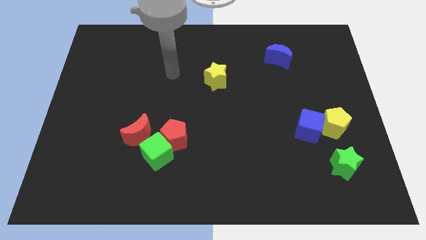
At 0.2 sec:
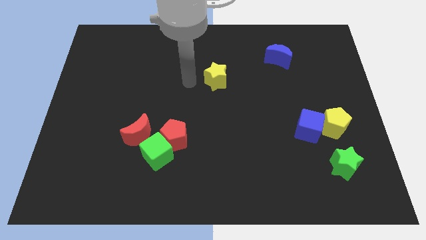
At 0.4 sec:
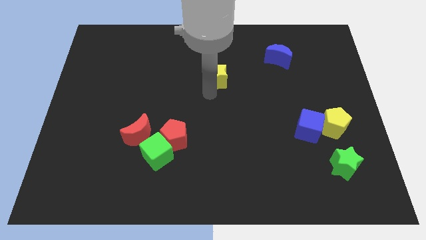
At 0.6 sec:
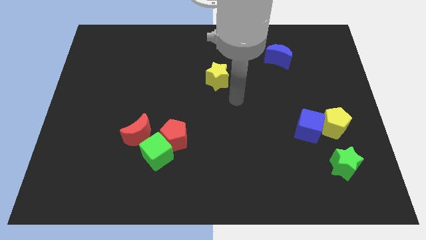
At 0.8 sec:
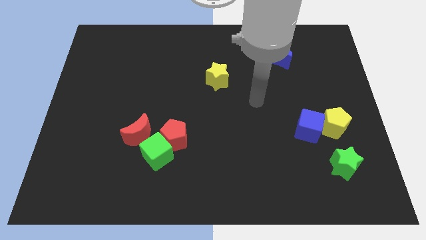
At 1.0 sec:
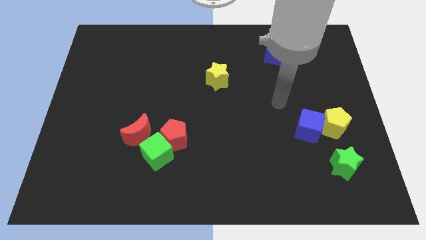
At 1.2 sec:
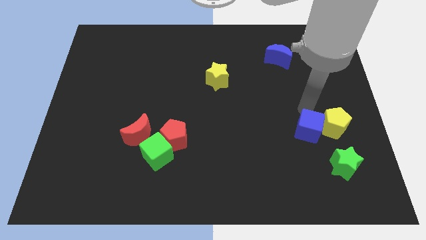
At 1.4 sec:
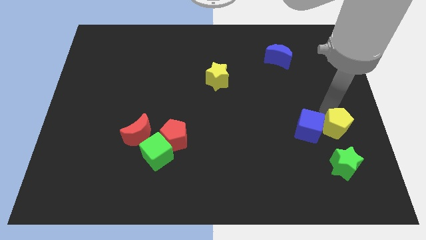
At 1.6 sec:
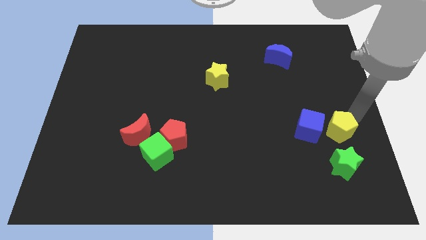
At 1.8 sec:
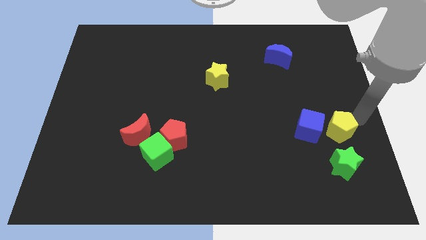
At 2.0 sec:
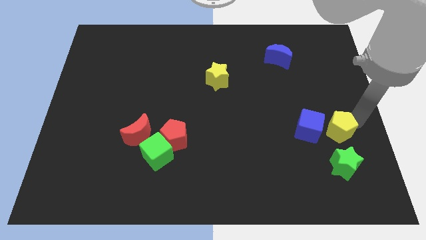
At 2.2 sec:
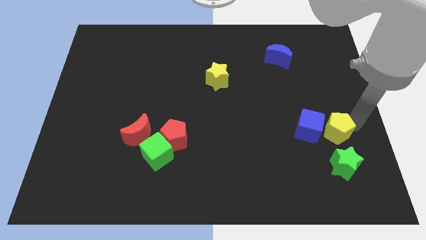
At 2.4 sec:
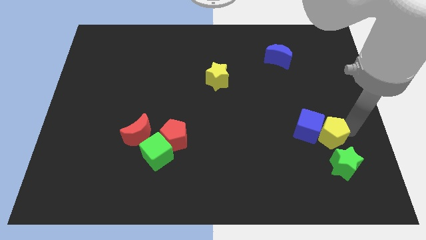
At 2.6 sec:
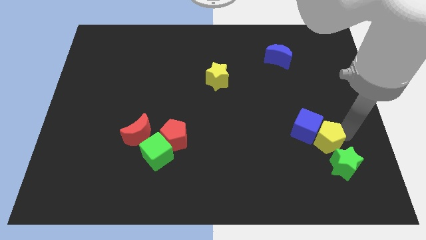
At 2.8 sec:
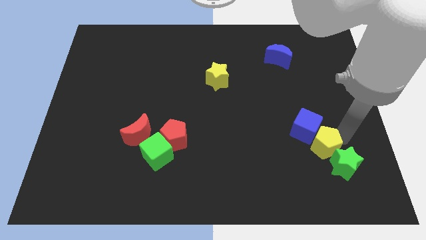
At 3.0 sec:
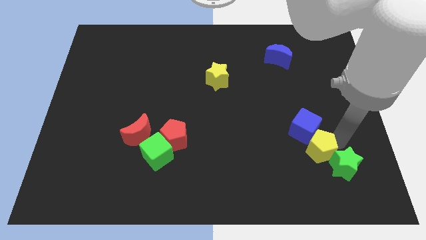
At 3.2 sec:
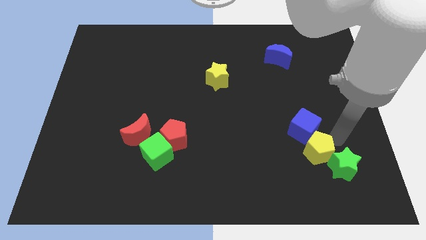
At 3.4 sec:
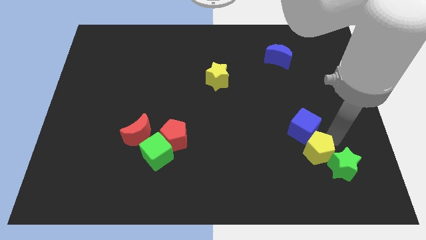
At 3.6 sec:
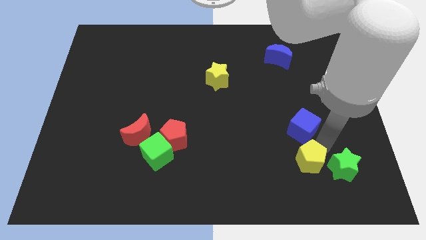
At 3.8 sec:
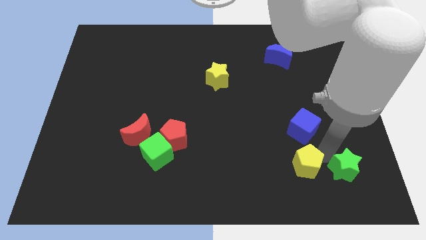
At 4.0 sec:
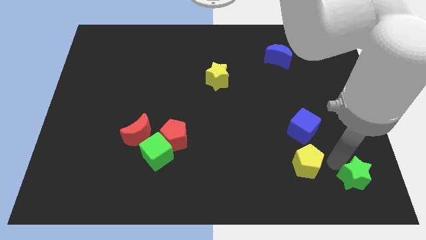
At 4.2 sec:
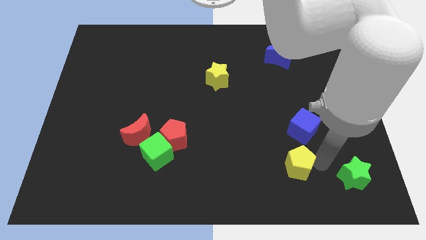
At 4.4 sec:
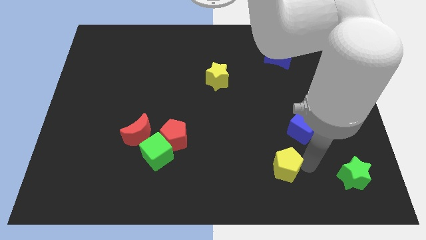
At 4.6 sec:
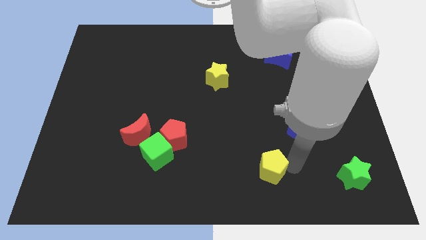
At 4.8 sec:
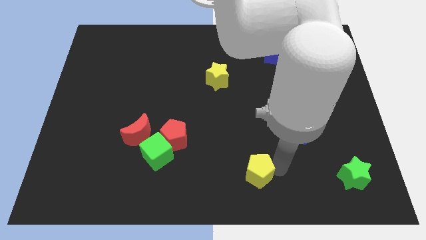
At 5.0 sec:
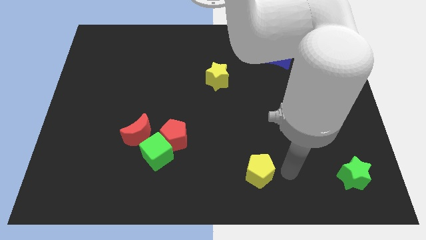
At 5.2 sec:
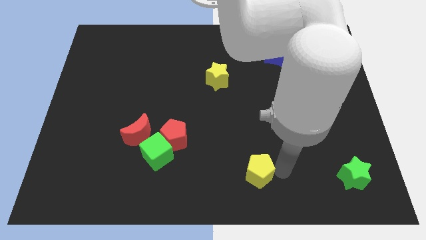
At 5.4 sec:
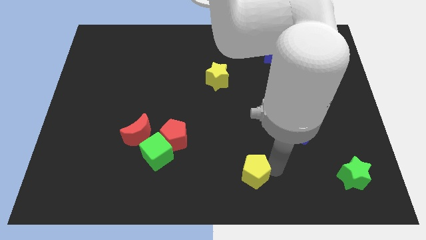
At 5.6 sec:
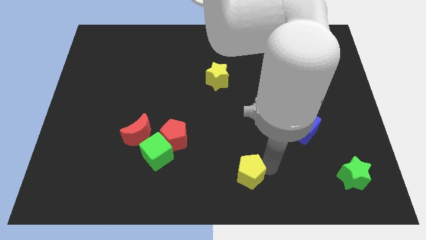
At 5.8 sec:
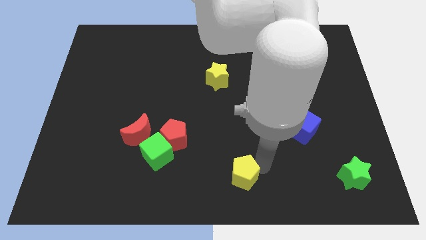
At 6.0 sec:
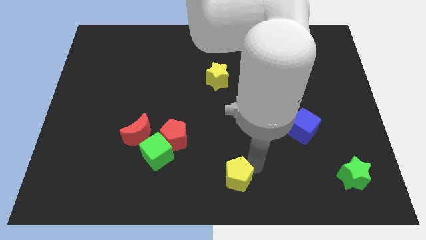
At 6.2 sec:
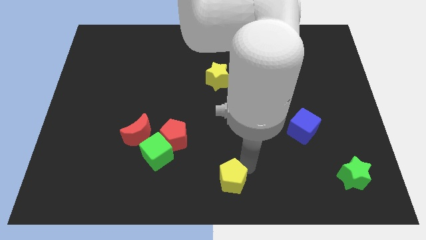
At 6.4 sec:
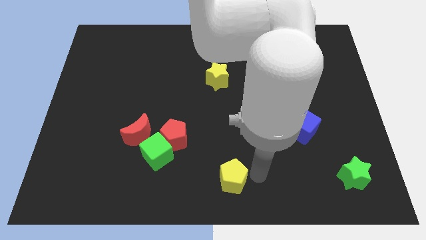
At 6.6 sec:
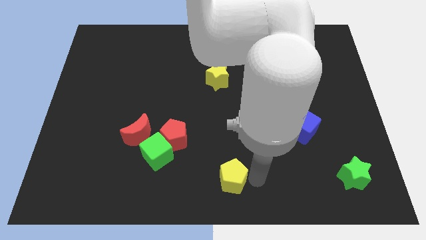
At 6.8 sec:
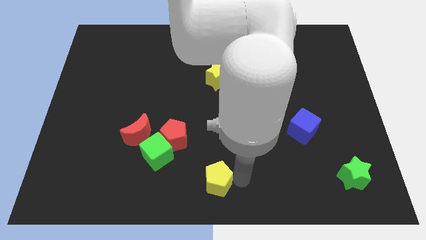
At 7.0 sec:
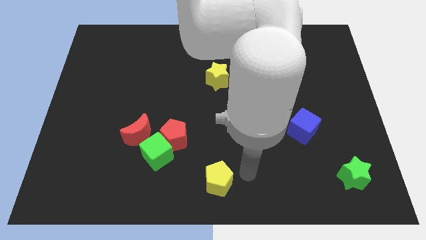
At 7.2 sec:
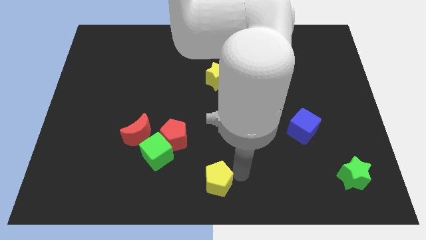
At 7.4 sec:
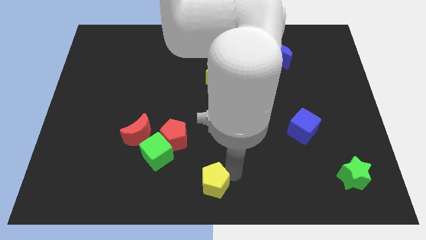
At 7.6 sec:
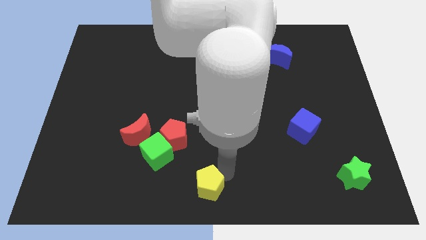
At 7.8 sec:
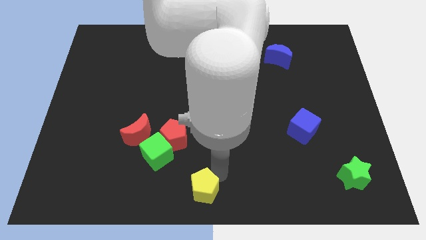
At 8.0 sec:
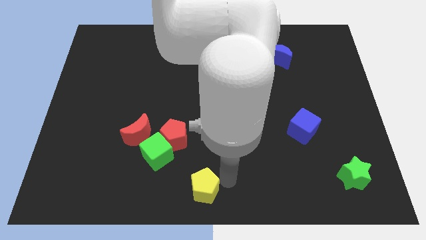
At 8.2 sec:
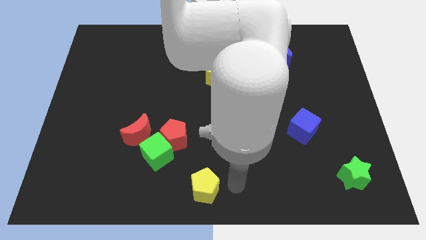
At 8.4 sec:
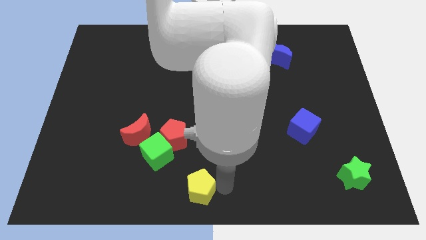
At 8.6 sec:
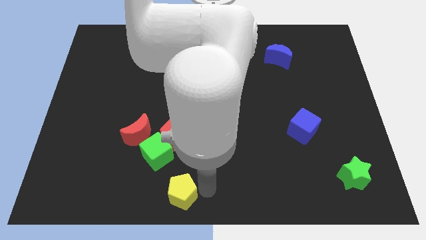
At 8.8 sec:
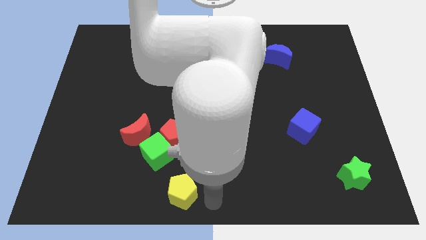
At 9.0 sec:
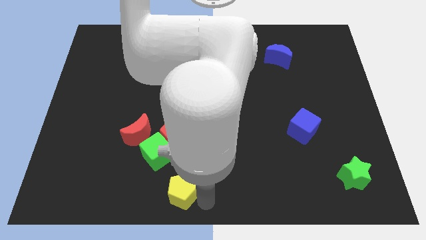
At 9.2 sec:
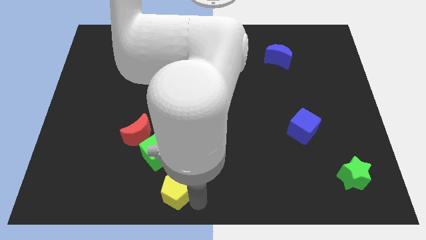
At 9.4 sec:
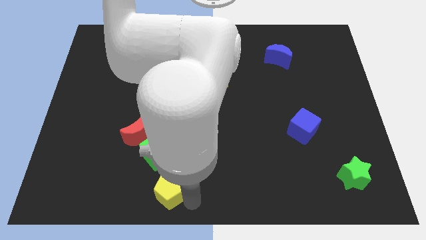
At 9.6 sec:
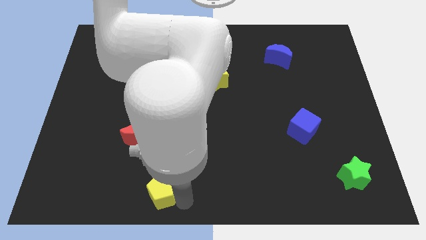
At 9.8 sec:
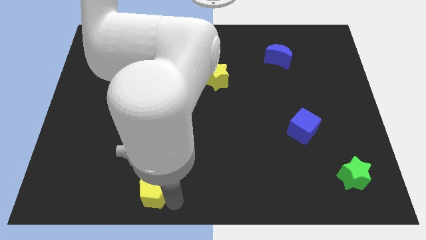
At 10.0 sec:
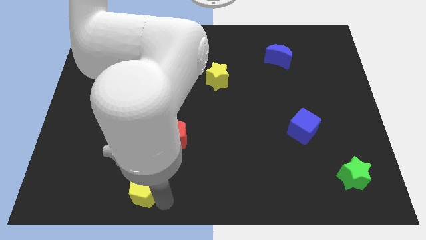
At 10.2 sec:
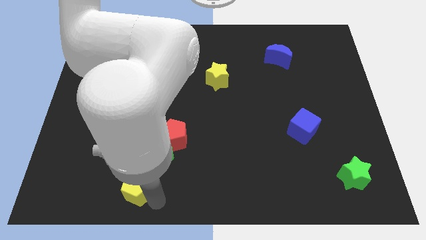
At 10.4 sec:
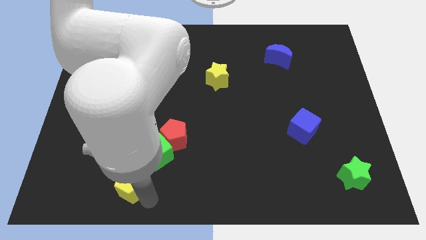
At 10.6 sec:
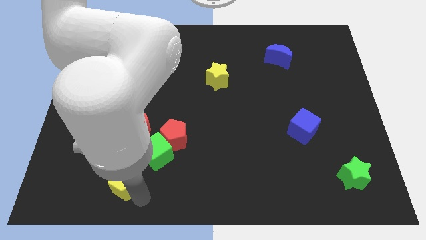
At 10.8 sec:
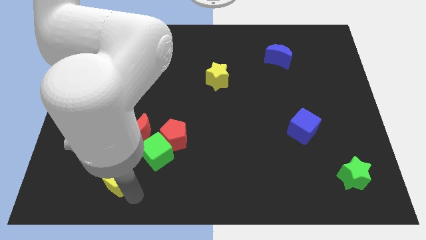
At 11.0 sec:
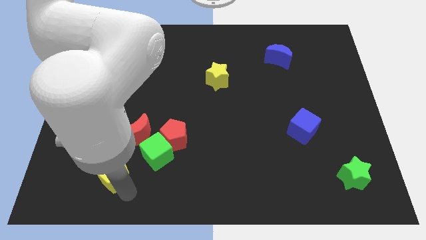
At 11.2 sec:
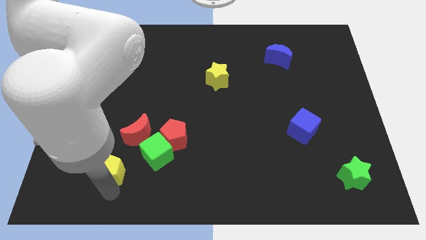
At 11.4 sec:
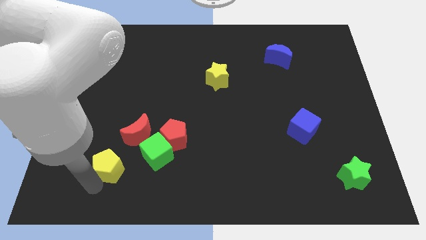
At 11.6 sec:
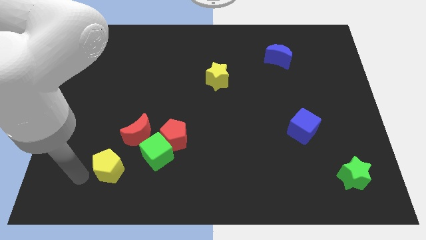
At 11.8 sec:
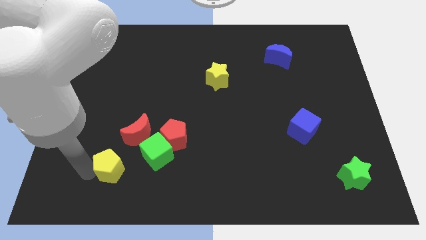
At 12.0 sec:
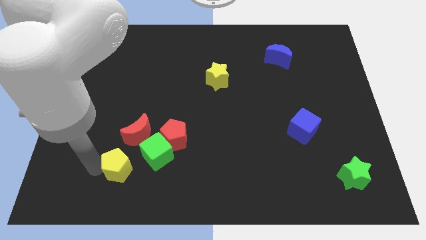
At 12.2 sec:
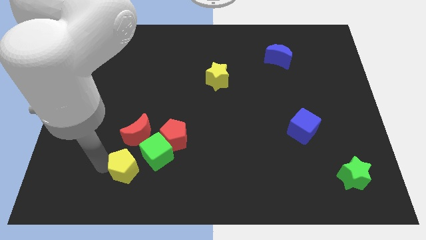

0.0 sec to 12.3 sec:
push the yellow pentagon to the bottom left of the red pentagon

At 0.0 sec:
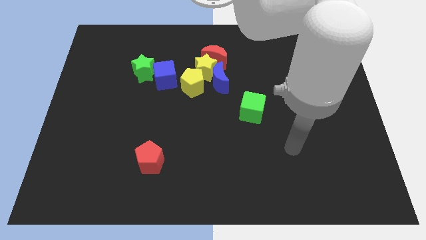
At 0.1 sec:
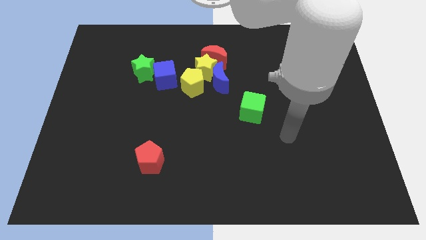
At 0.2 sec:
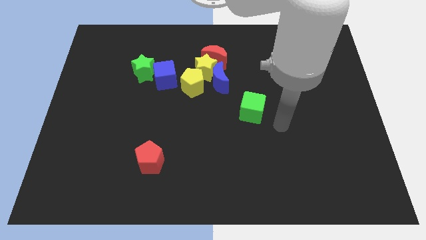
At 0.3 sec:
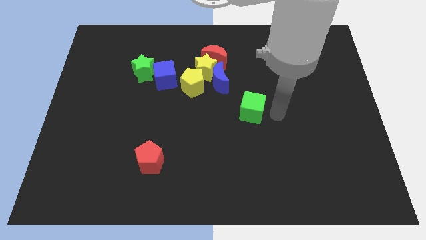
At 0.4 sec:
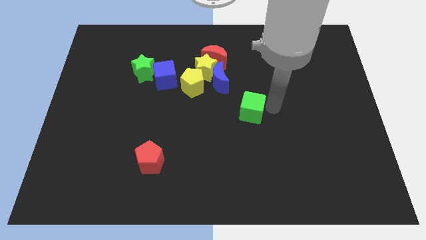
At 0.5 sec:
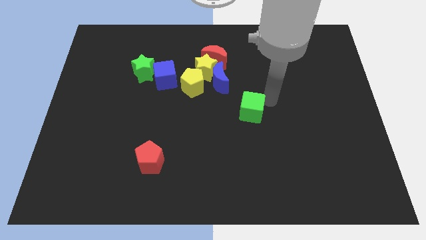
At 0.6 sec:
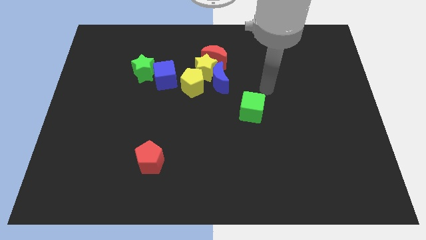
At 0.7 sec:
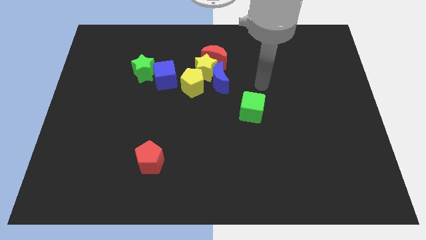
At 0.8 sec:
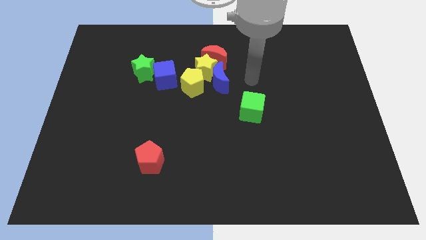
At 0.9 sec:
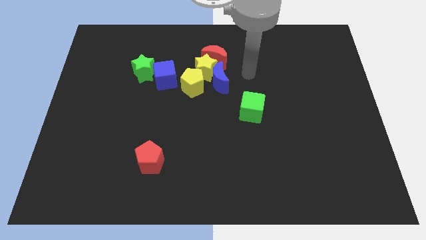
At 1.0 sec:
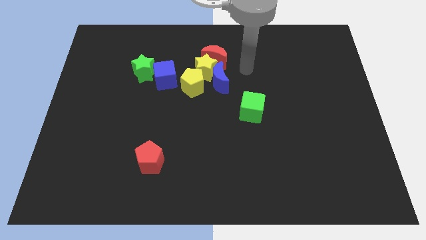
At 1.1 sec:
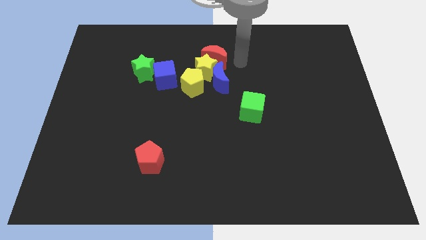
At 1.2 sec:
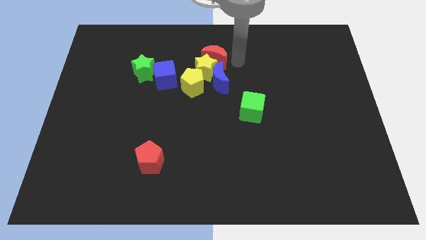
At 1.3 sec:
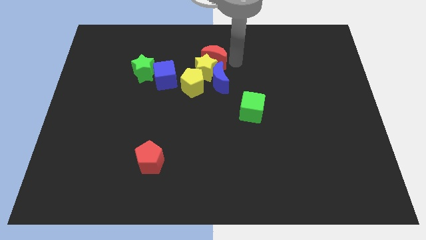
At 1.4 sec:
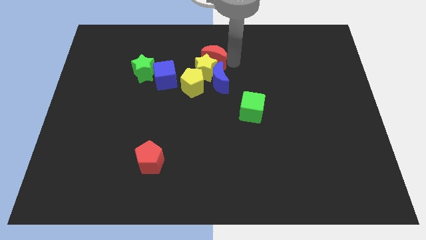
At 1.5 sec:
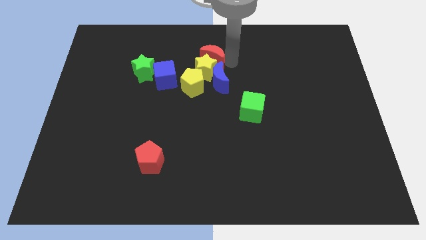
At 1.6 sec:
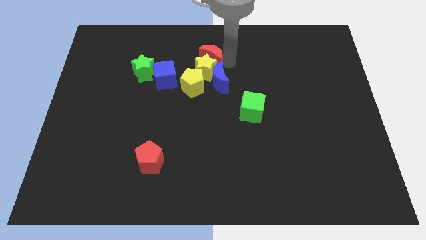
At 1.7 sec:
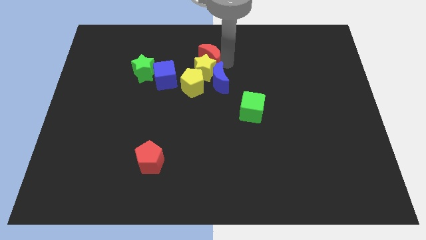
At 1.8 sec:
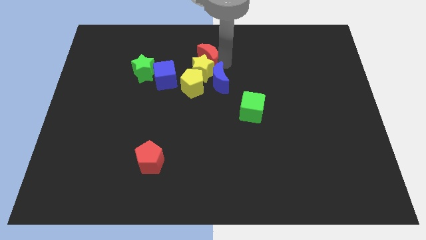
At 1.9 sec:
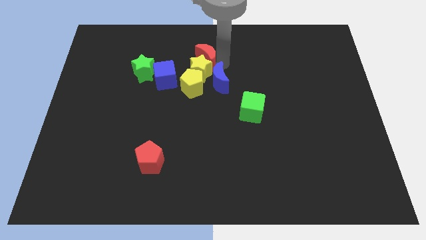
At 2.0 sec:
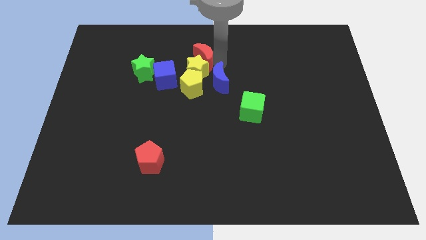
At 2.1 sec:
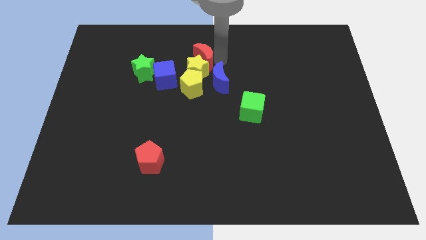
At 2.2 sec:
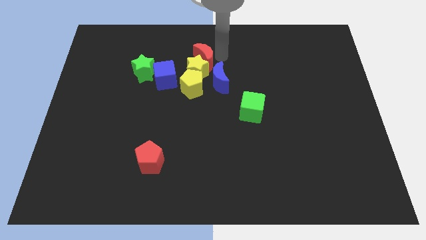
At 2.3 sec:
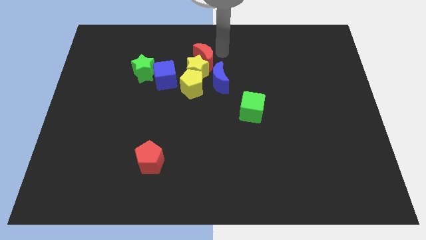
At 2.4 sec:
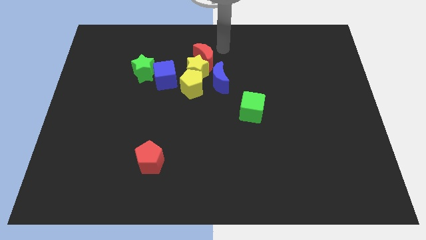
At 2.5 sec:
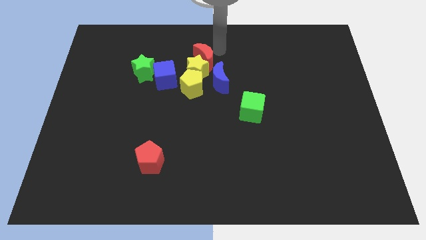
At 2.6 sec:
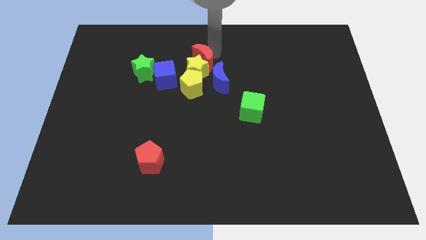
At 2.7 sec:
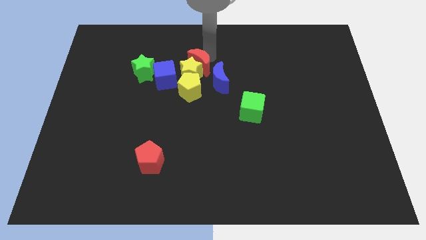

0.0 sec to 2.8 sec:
move the red moon right of the green star
